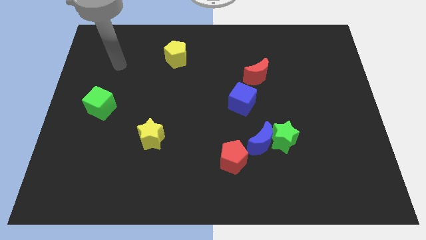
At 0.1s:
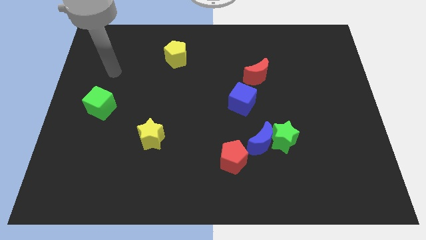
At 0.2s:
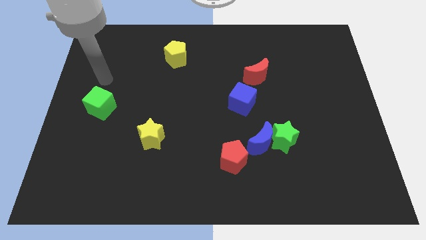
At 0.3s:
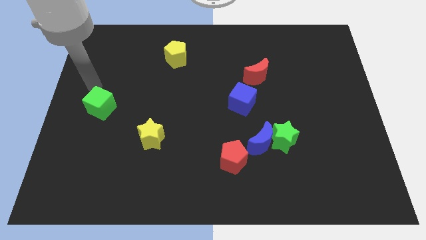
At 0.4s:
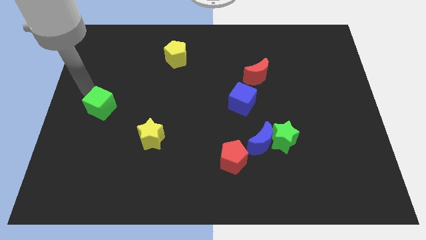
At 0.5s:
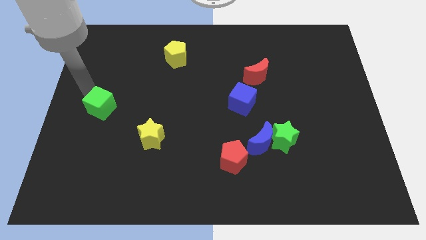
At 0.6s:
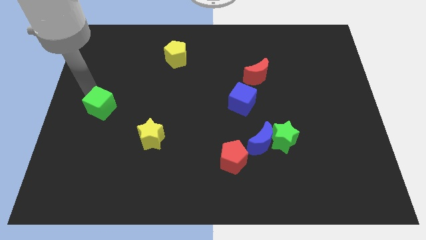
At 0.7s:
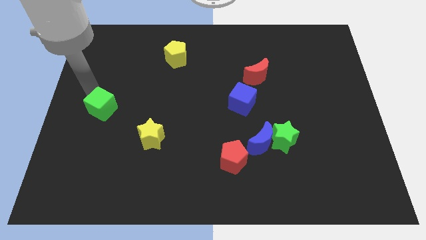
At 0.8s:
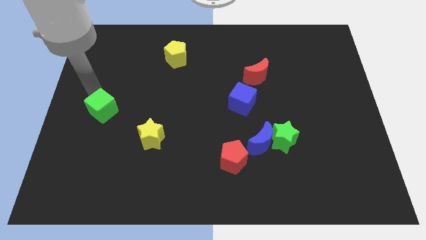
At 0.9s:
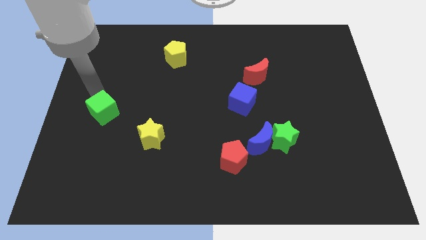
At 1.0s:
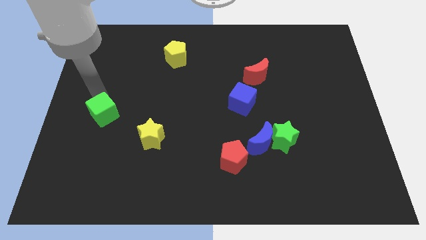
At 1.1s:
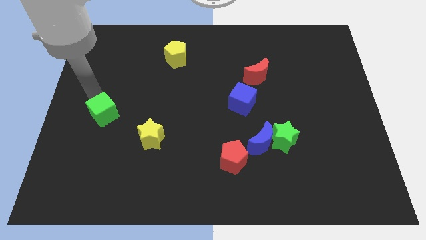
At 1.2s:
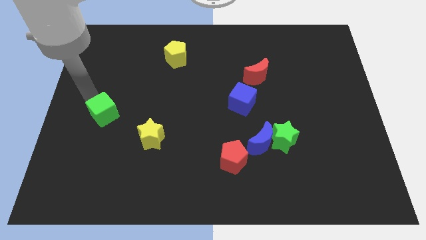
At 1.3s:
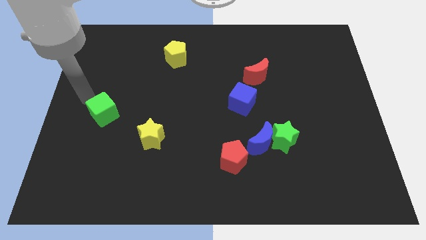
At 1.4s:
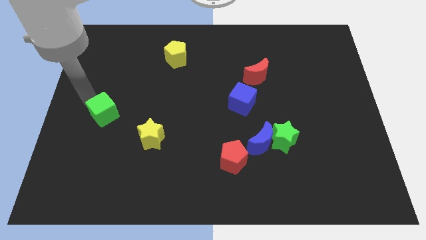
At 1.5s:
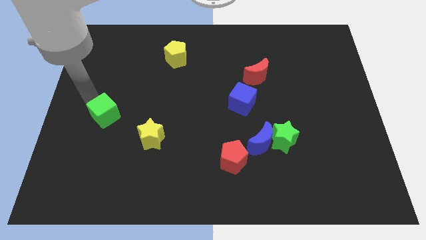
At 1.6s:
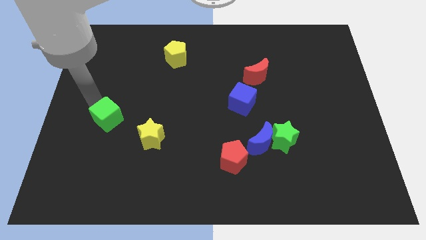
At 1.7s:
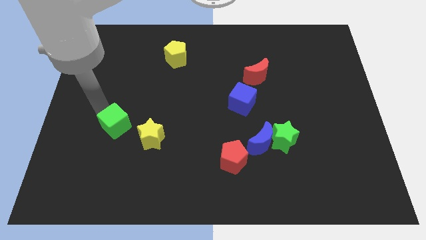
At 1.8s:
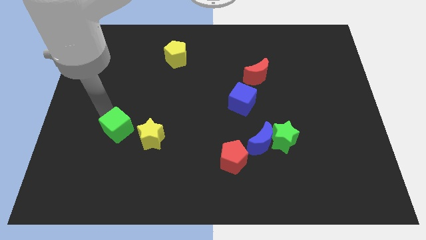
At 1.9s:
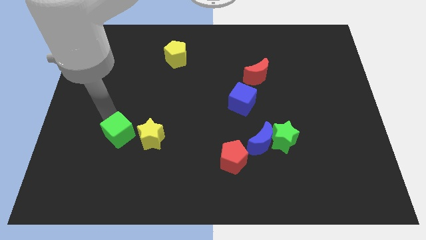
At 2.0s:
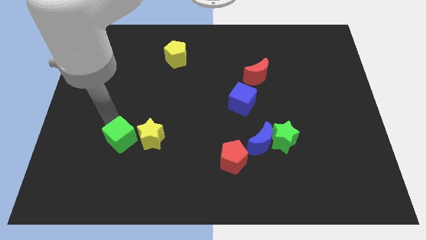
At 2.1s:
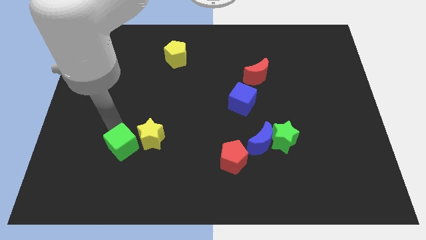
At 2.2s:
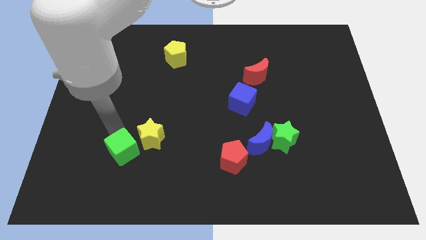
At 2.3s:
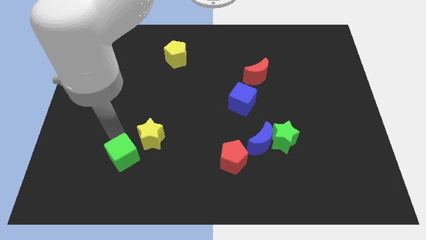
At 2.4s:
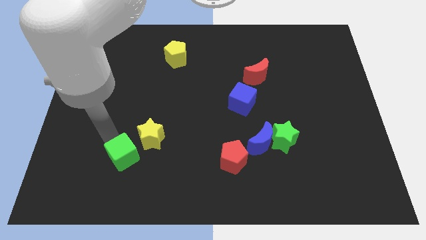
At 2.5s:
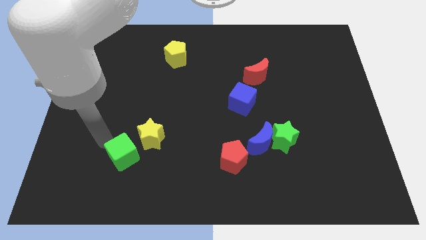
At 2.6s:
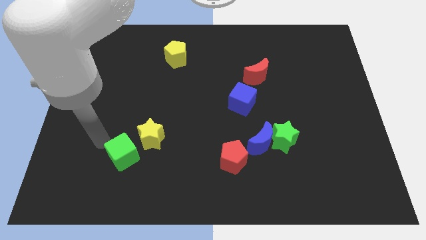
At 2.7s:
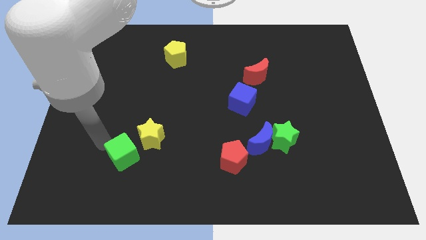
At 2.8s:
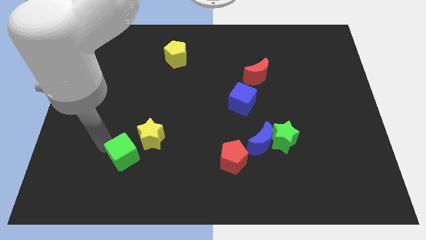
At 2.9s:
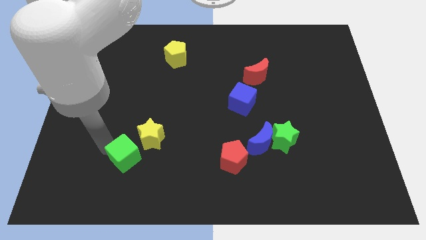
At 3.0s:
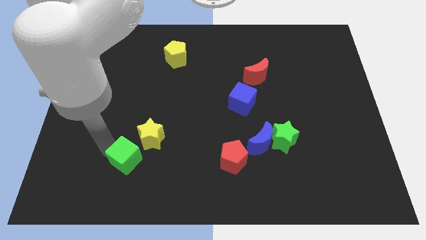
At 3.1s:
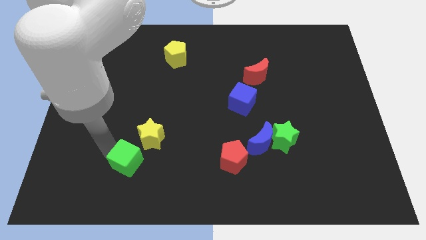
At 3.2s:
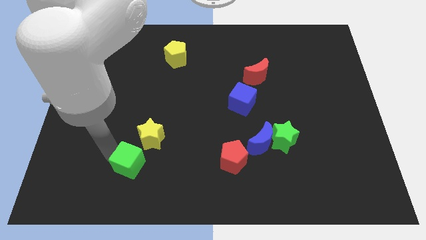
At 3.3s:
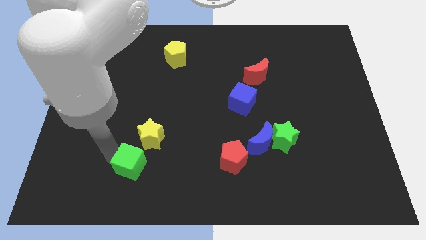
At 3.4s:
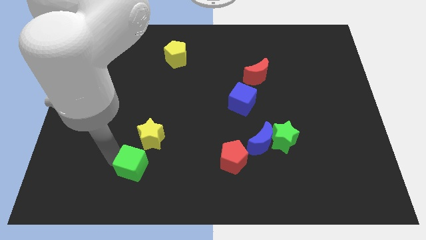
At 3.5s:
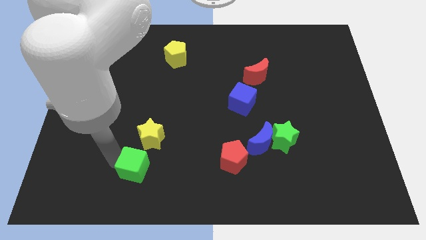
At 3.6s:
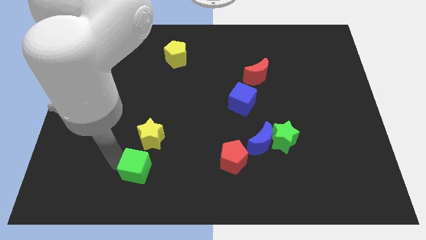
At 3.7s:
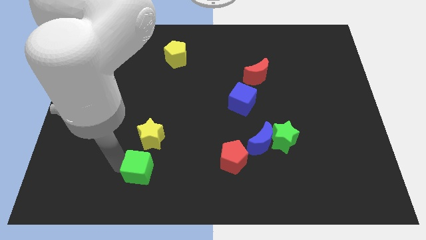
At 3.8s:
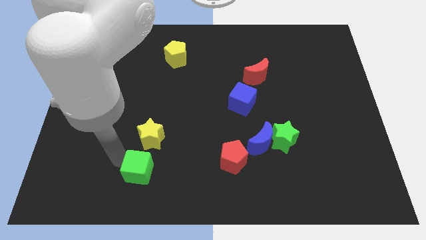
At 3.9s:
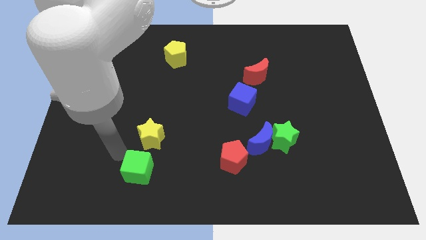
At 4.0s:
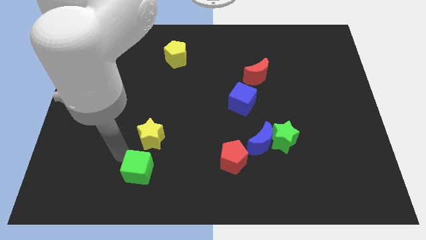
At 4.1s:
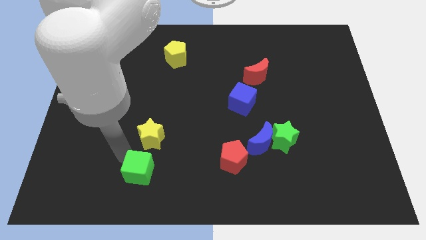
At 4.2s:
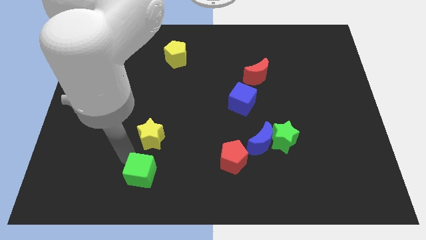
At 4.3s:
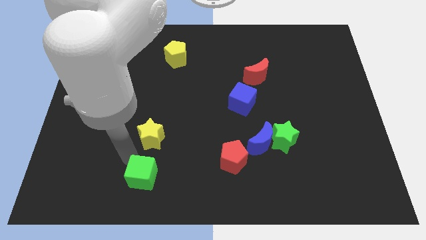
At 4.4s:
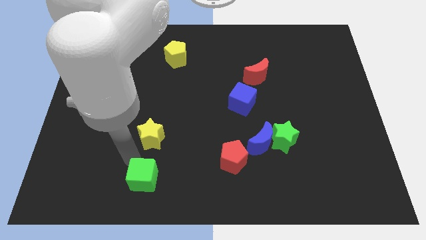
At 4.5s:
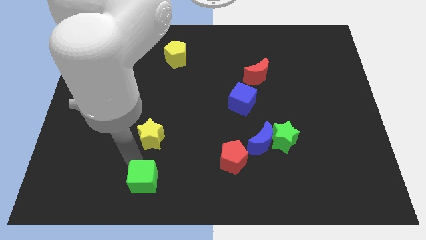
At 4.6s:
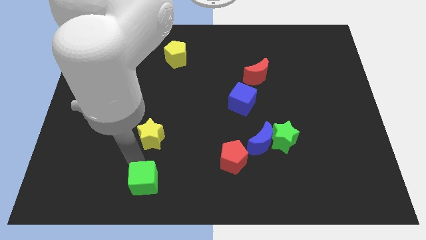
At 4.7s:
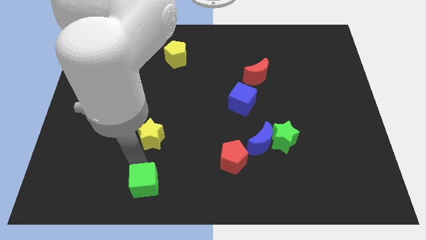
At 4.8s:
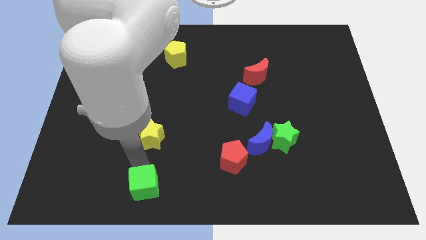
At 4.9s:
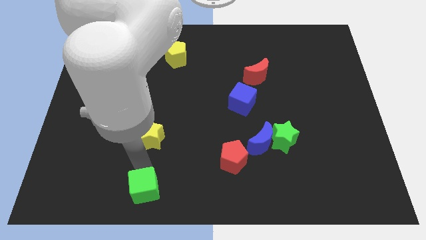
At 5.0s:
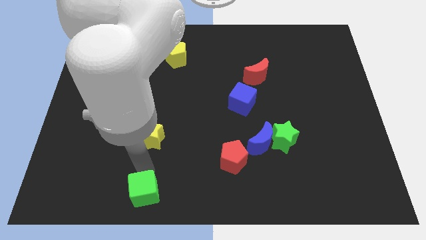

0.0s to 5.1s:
push the green cube to the bottom

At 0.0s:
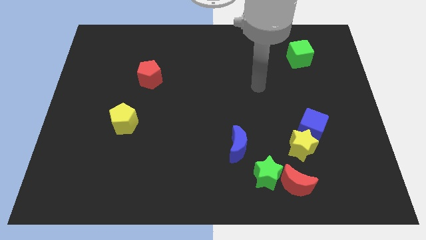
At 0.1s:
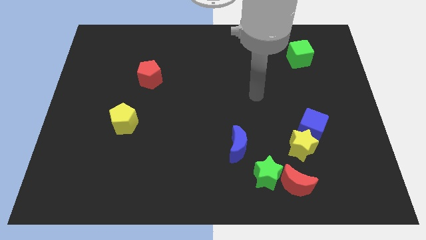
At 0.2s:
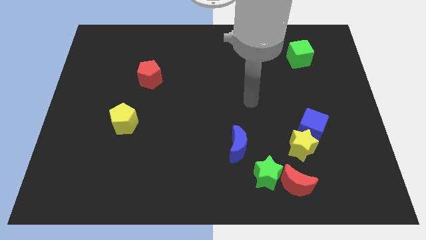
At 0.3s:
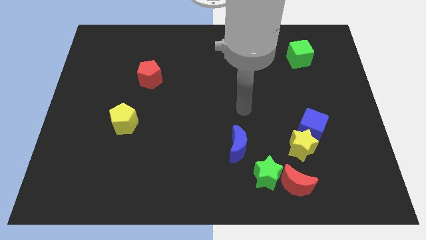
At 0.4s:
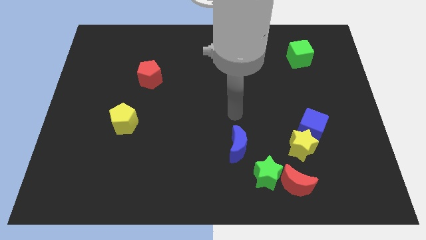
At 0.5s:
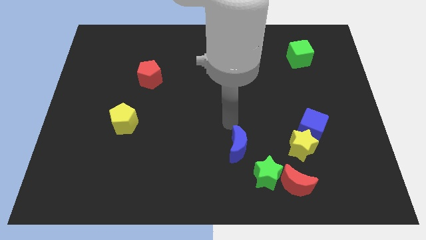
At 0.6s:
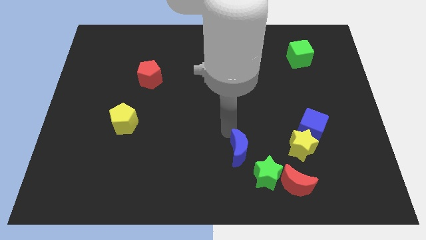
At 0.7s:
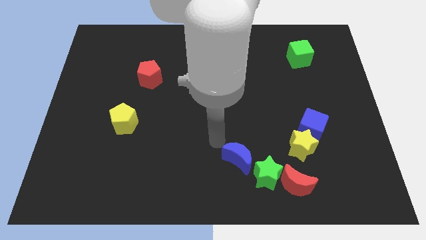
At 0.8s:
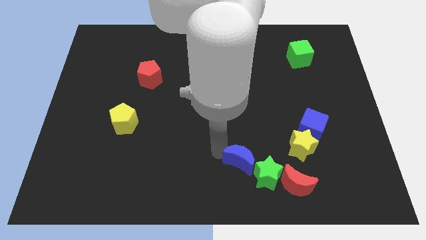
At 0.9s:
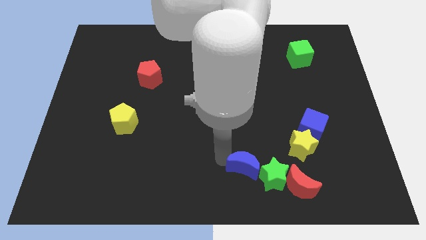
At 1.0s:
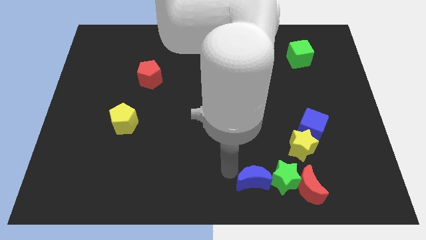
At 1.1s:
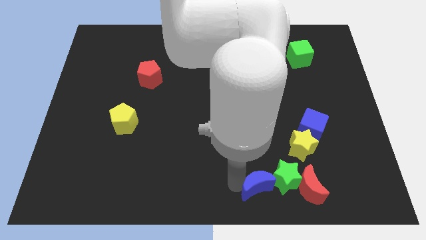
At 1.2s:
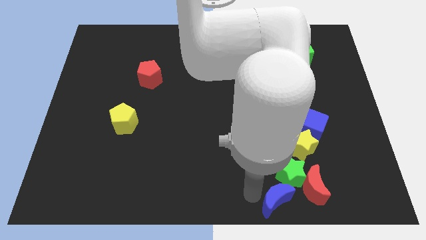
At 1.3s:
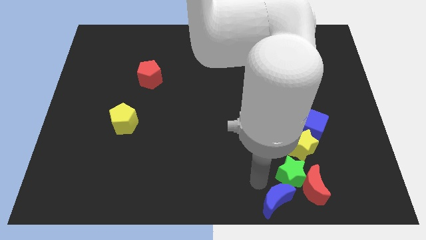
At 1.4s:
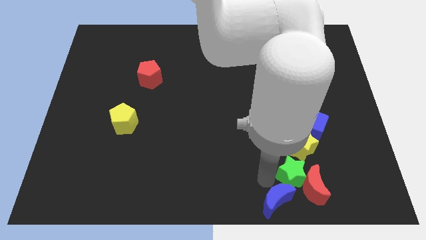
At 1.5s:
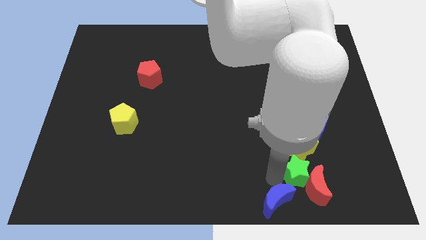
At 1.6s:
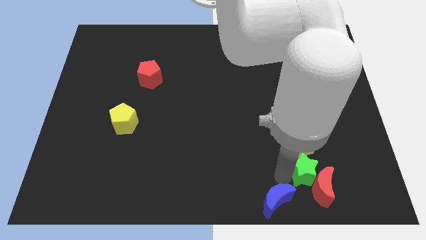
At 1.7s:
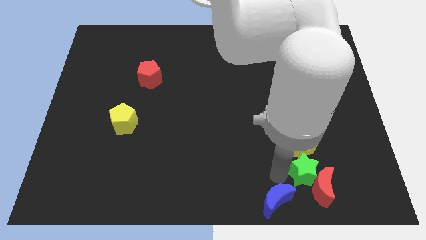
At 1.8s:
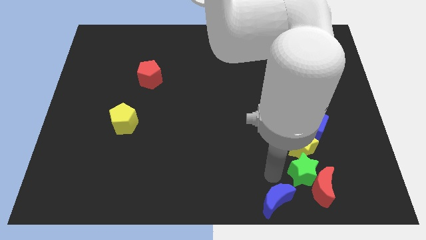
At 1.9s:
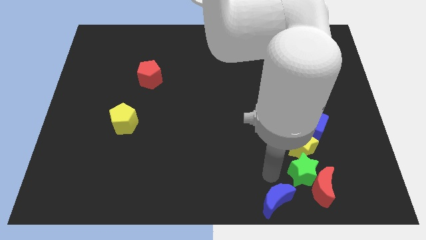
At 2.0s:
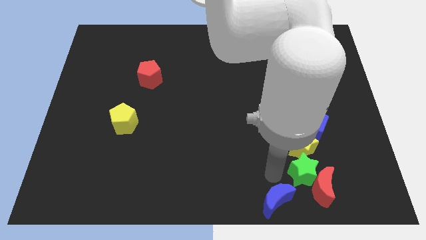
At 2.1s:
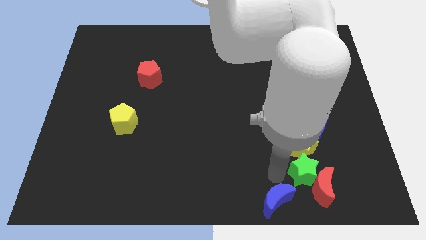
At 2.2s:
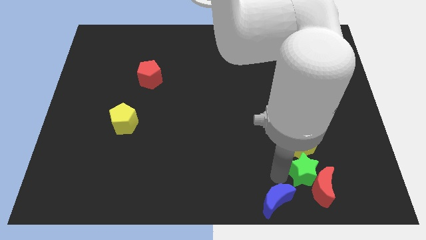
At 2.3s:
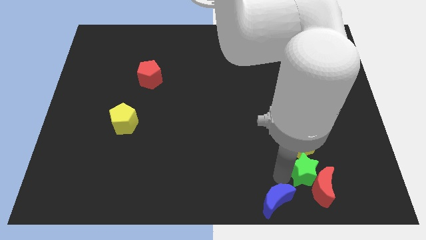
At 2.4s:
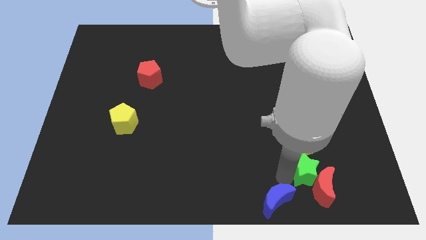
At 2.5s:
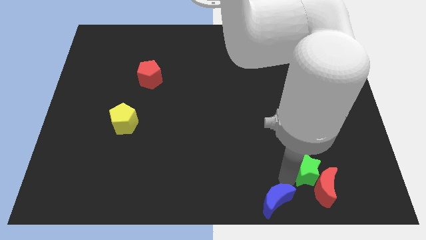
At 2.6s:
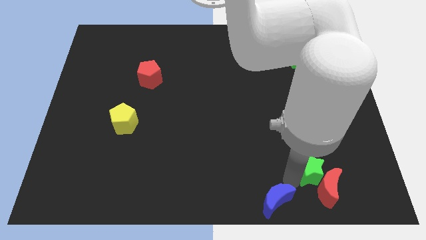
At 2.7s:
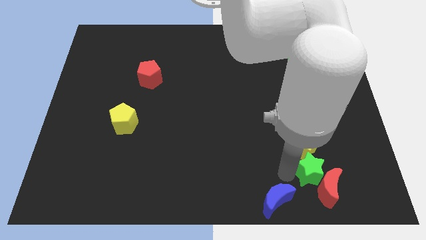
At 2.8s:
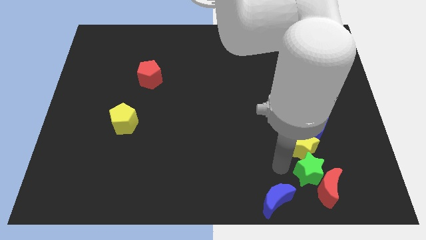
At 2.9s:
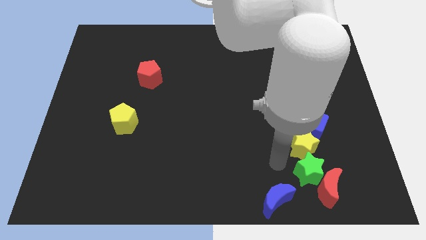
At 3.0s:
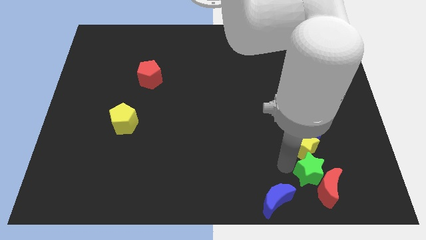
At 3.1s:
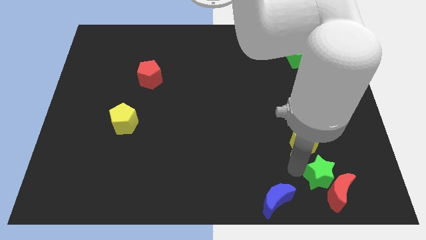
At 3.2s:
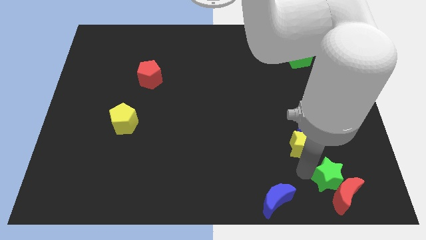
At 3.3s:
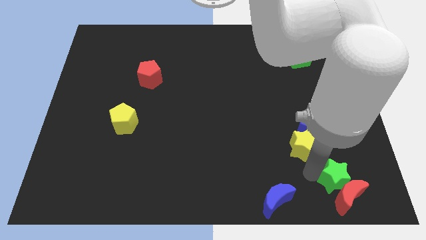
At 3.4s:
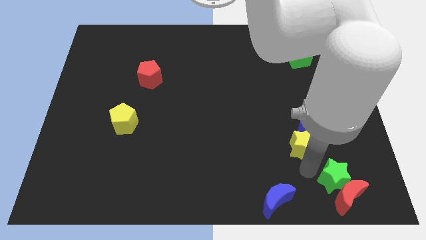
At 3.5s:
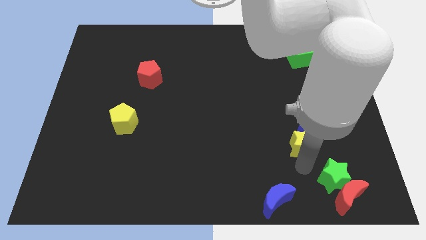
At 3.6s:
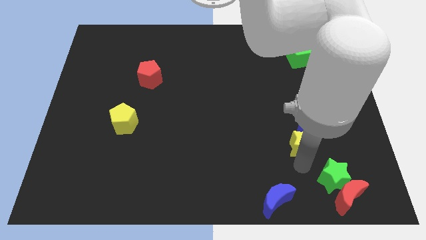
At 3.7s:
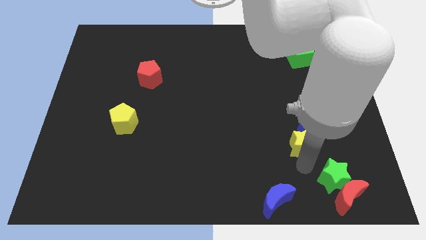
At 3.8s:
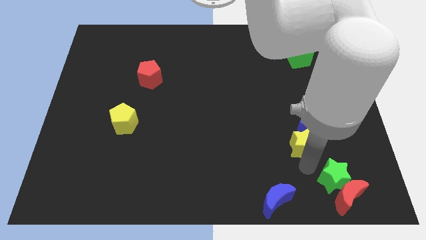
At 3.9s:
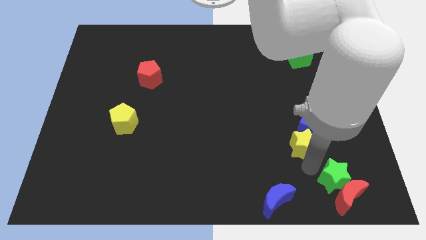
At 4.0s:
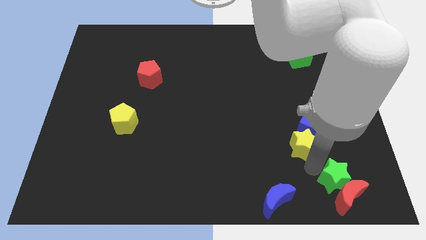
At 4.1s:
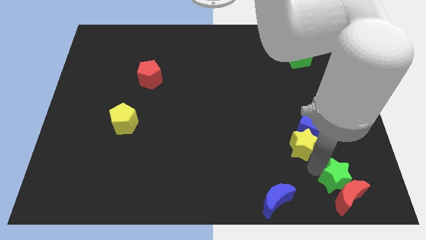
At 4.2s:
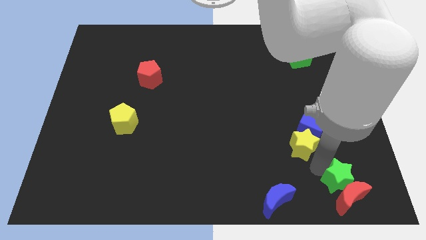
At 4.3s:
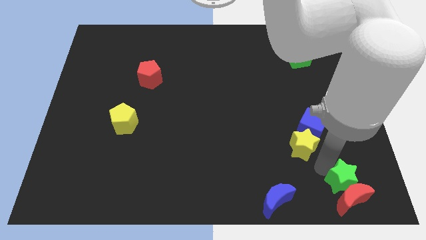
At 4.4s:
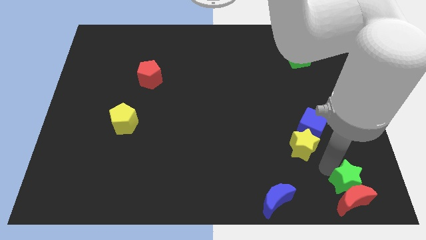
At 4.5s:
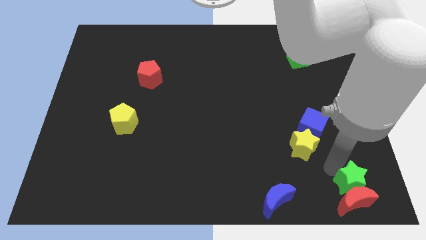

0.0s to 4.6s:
push the green star to the lower right corner
